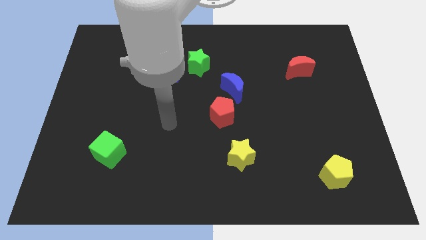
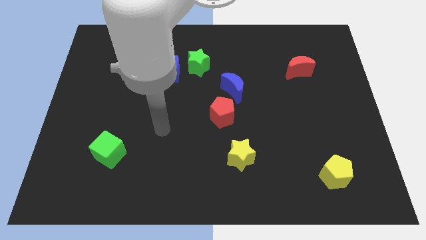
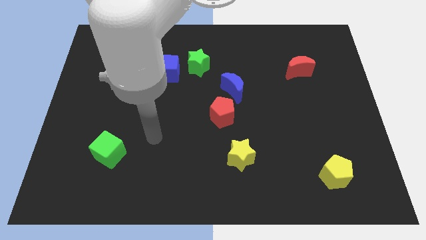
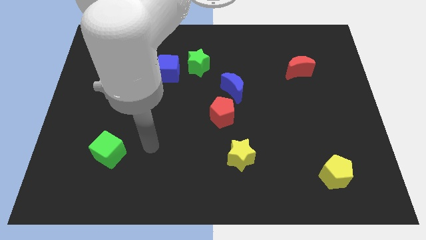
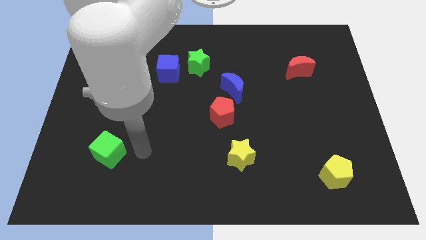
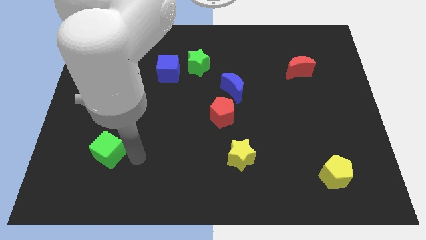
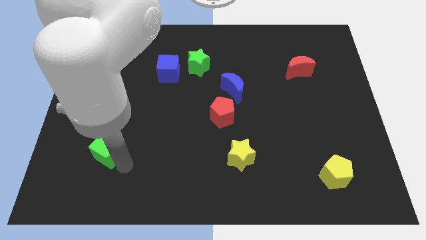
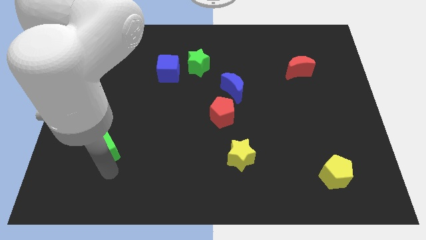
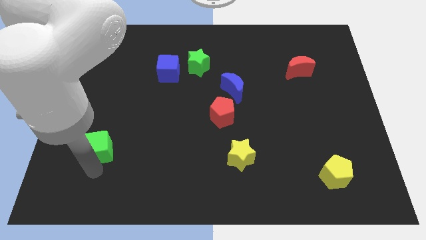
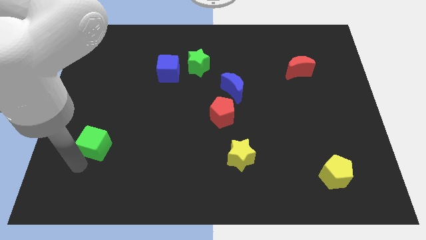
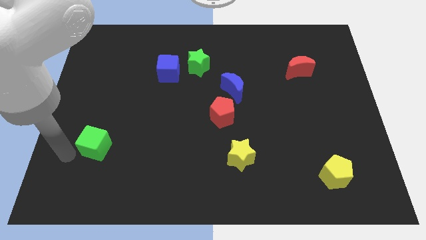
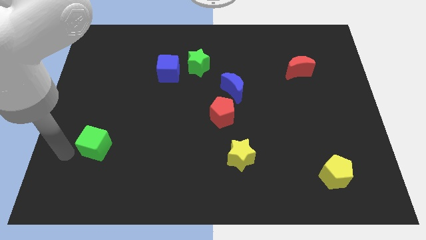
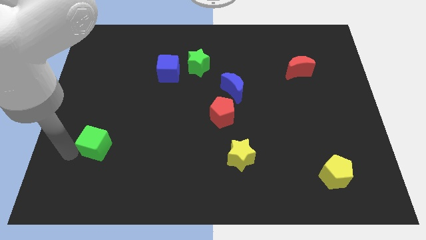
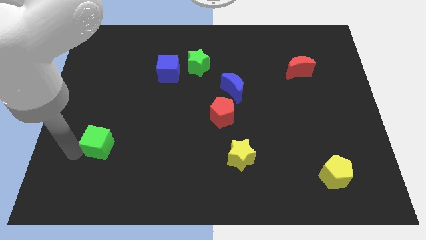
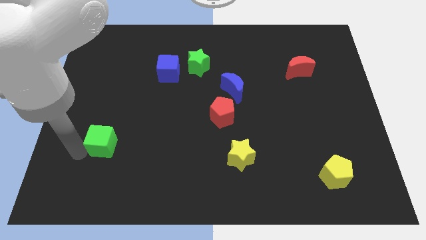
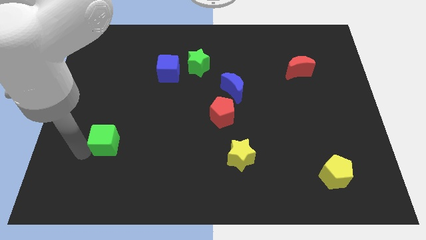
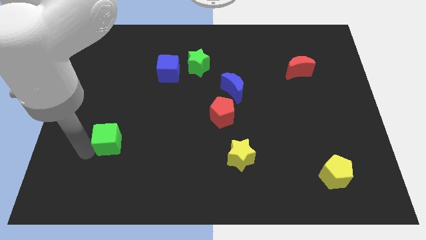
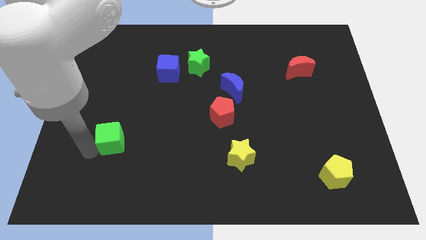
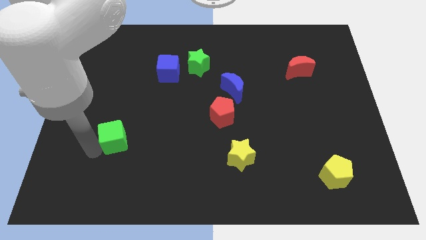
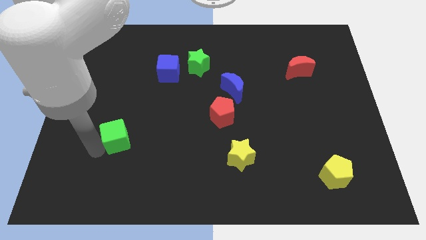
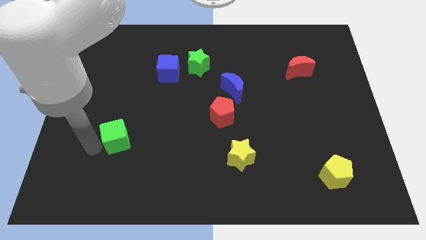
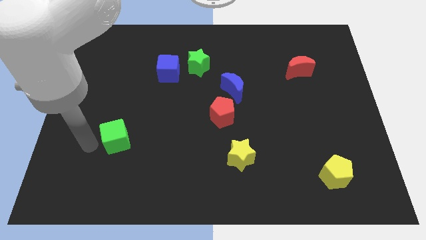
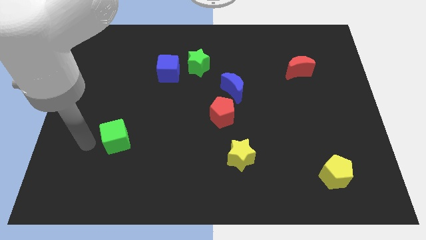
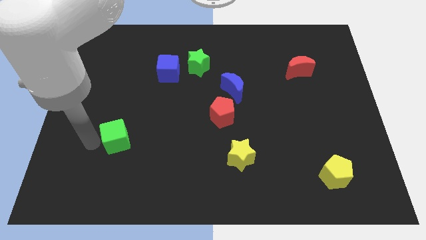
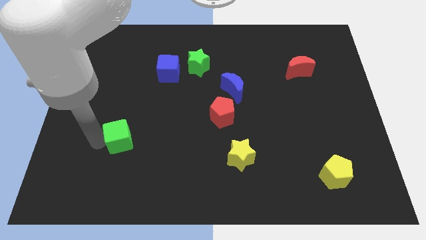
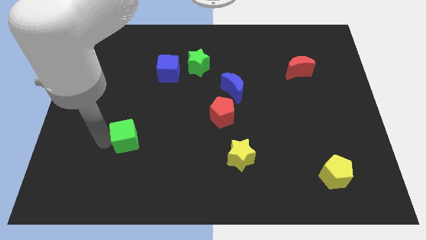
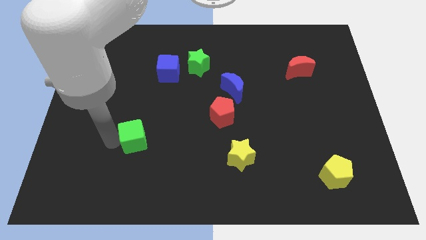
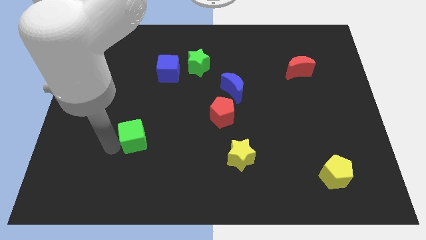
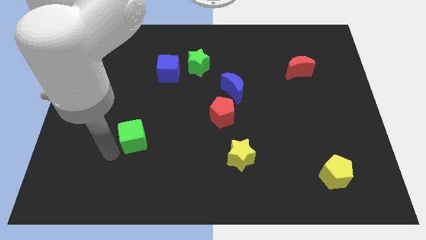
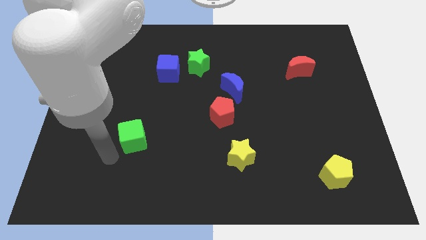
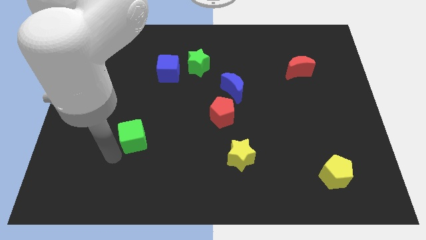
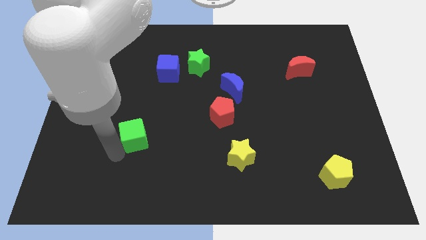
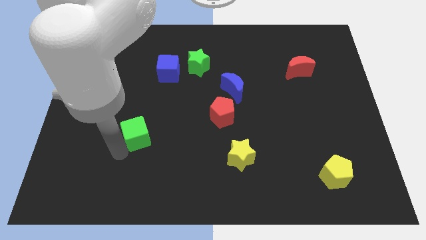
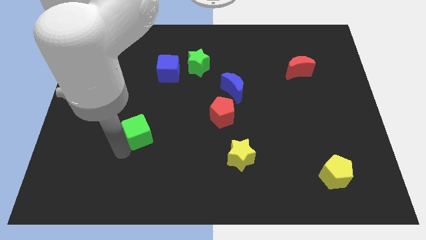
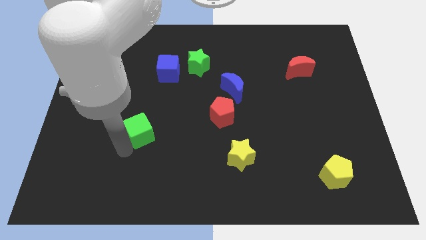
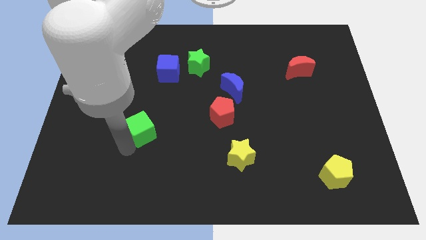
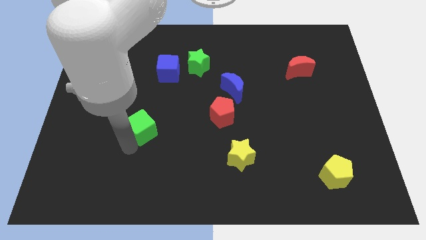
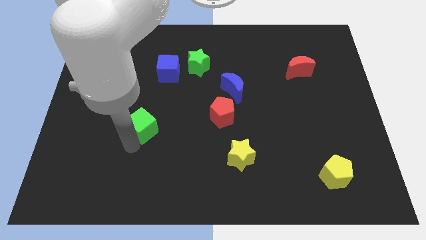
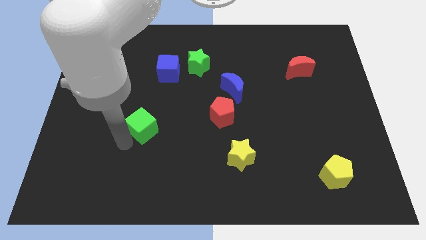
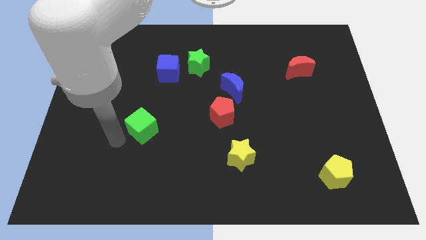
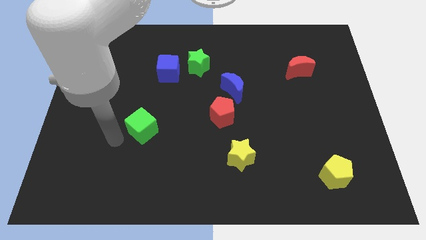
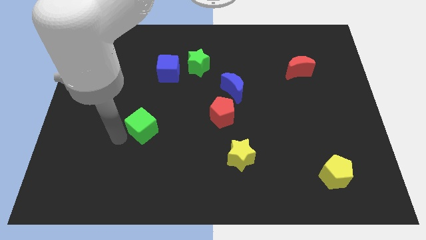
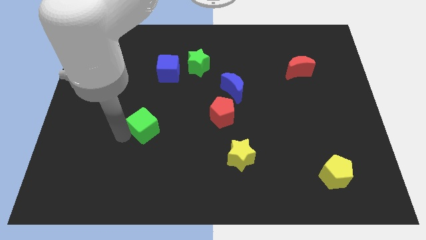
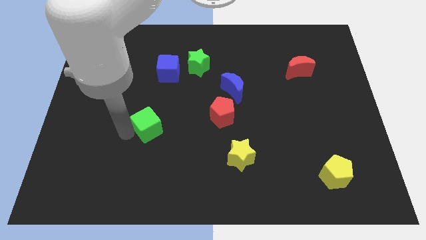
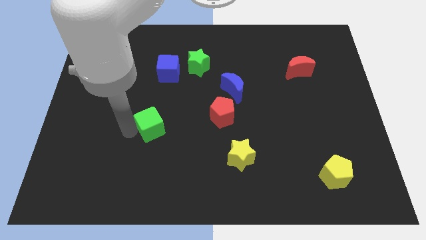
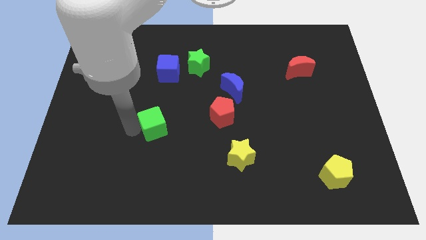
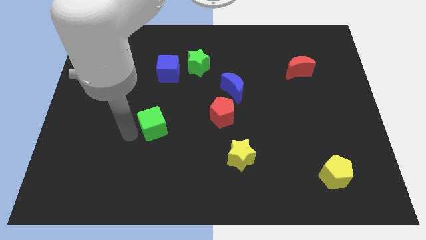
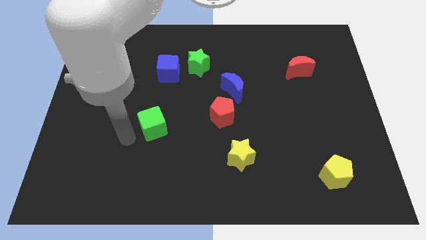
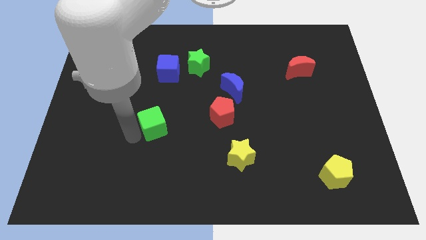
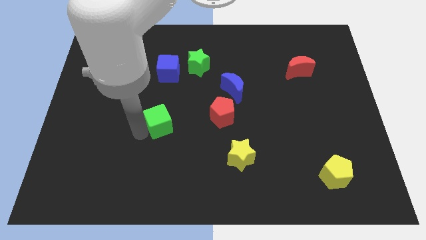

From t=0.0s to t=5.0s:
slide the green cube just left of the red pentagon

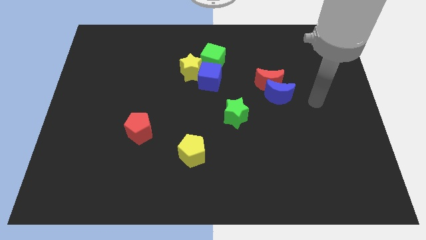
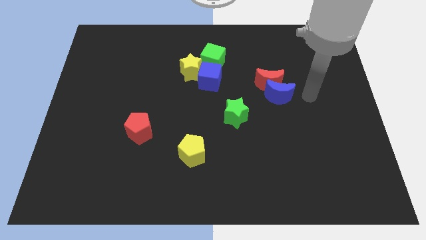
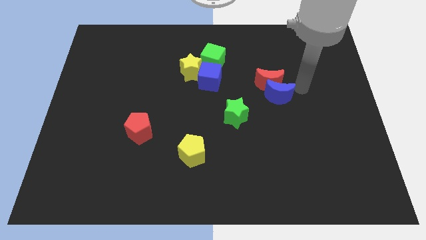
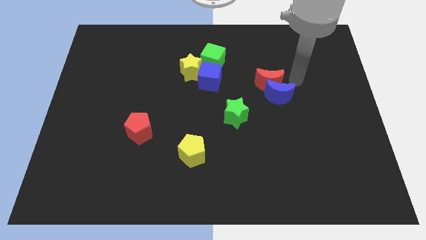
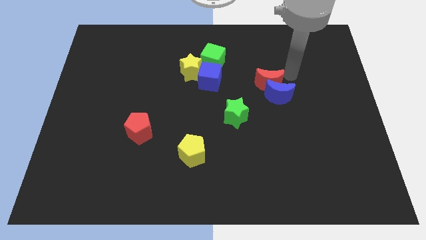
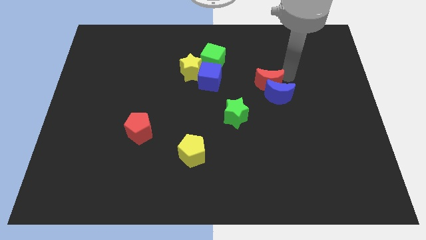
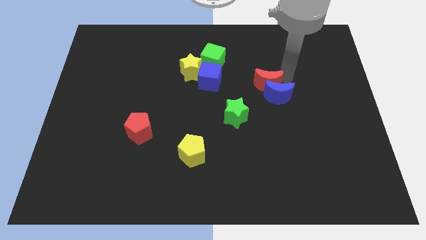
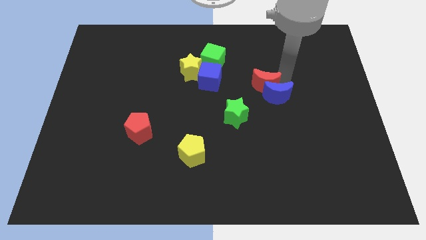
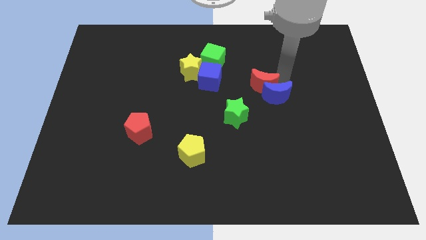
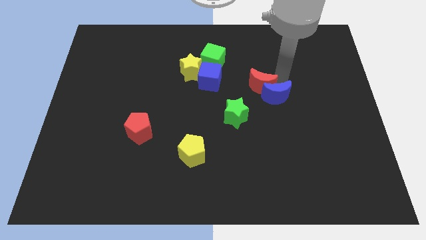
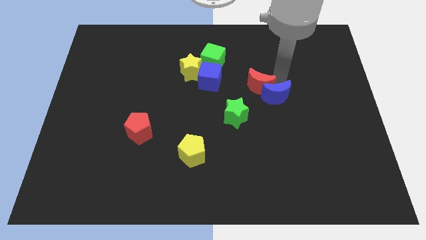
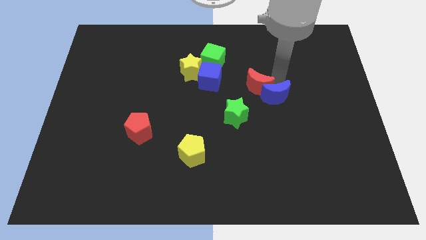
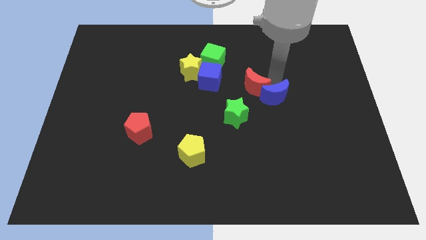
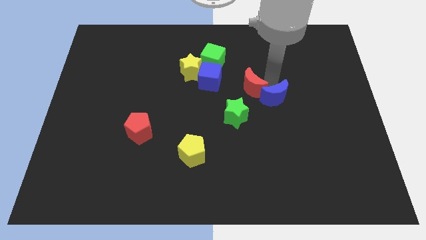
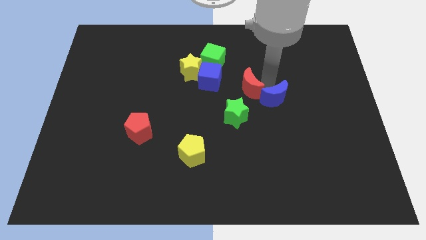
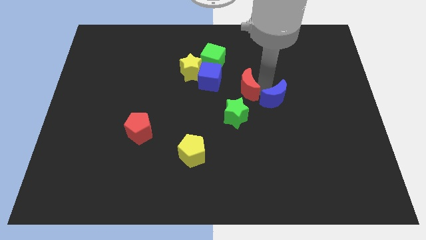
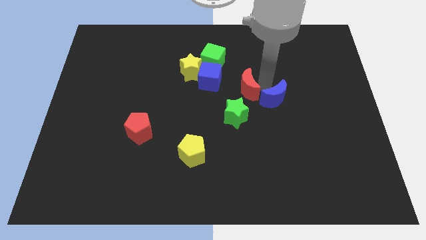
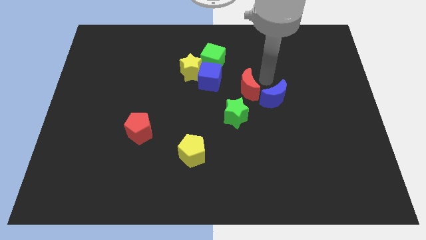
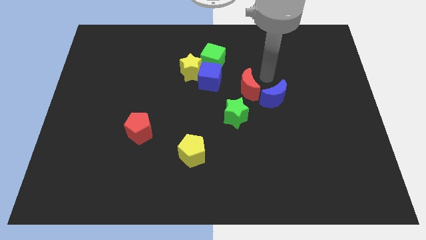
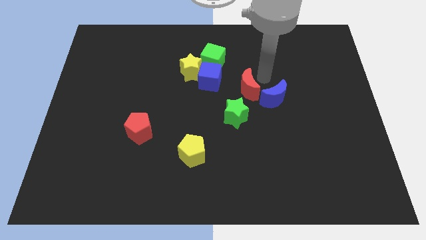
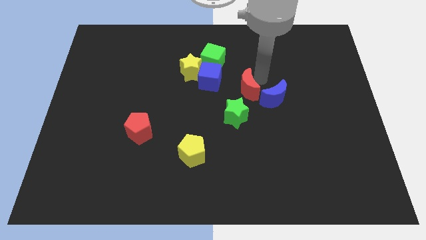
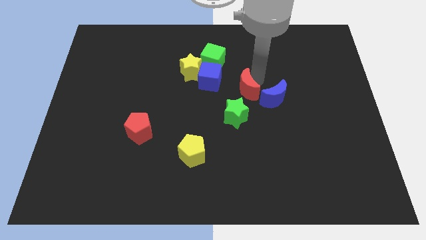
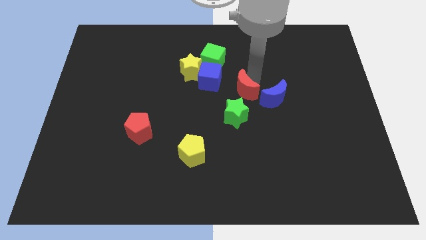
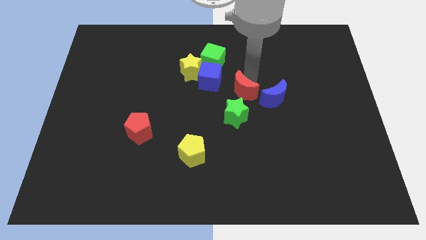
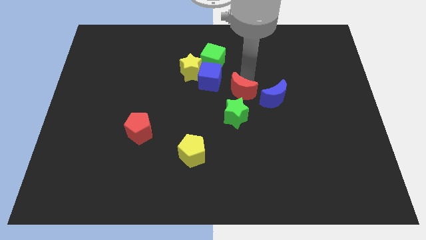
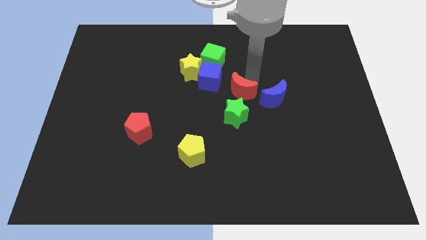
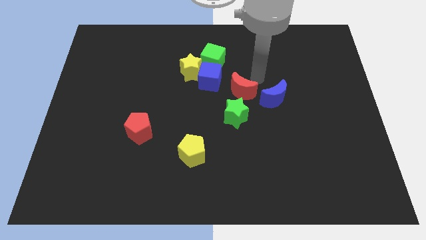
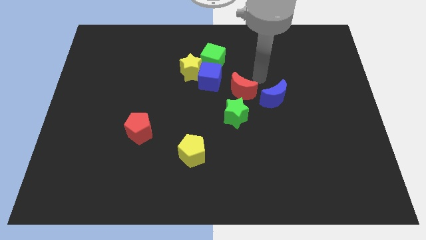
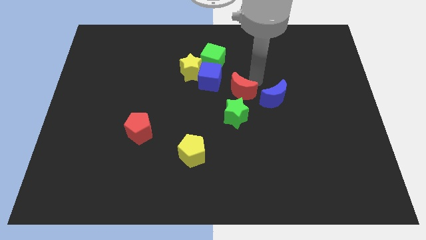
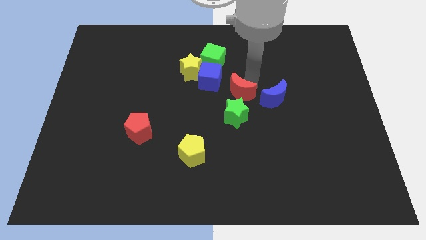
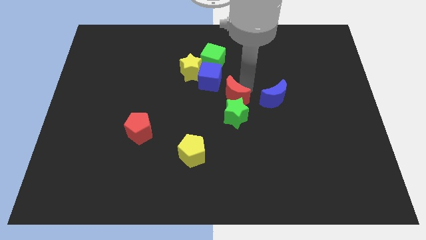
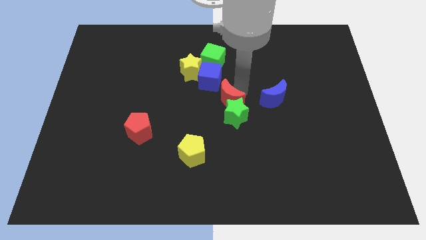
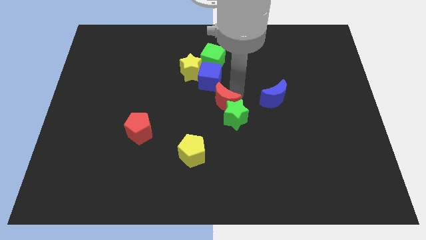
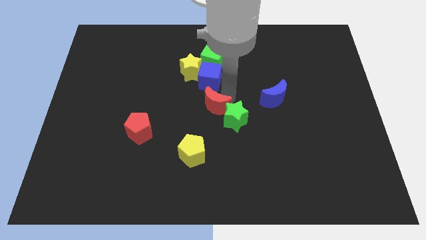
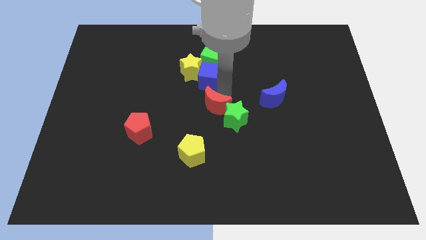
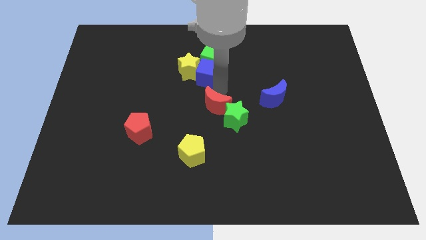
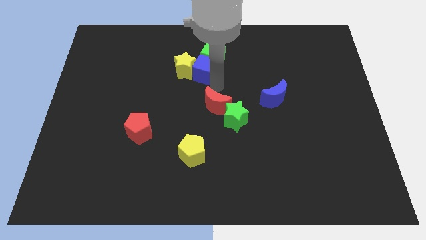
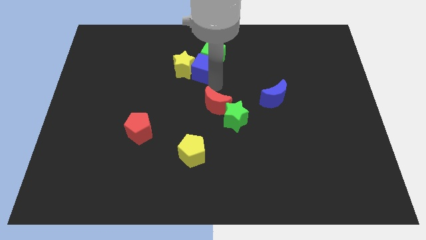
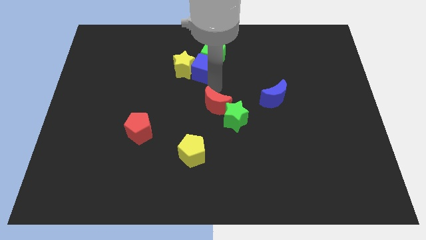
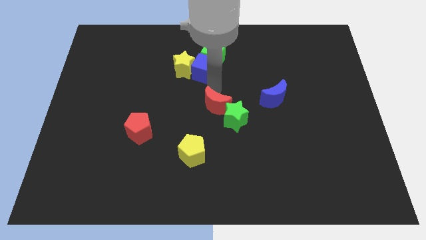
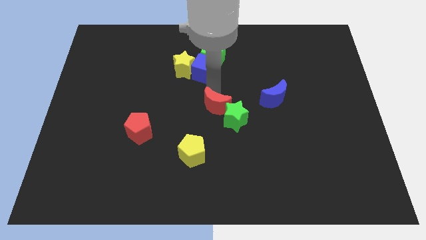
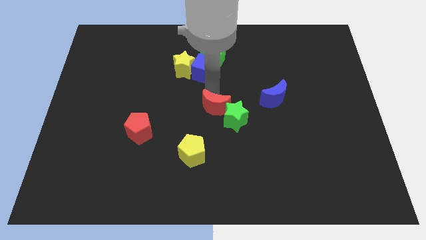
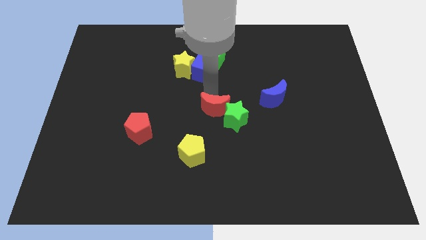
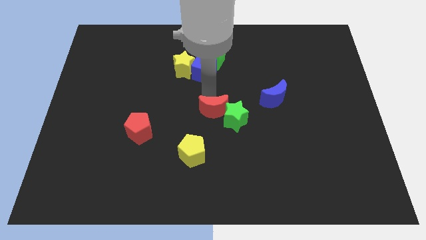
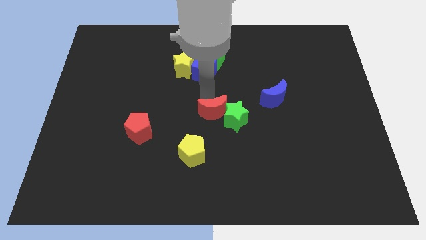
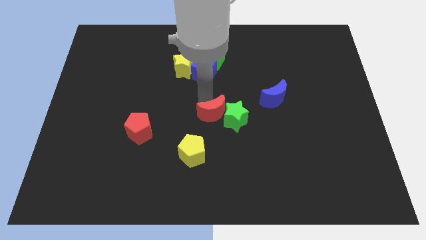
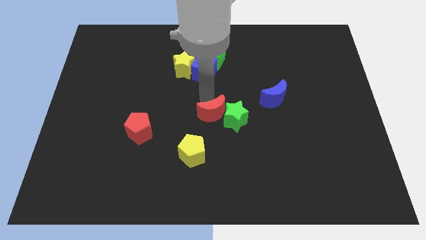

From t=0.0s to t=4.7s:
put the red moon to the top right of the yellow pentagon
